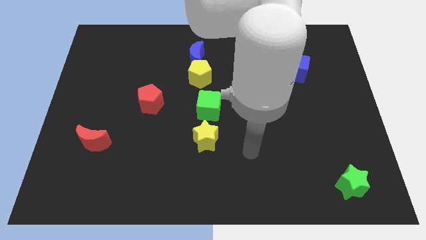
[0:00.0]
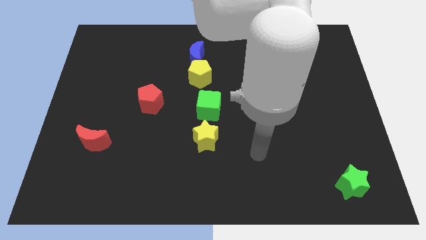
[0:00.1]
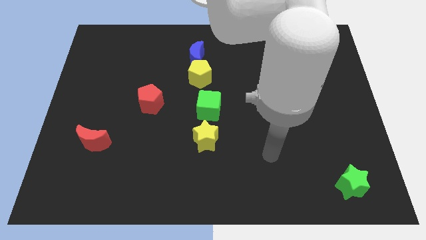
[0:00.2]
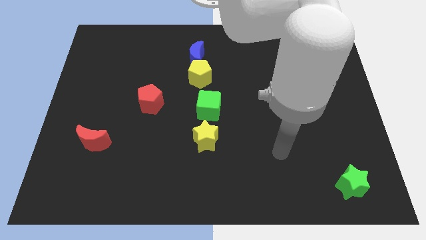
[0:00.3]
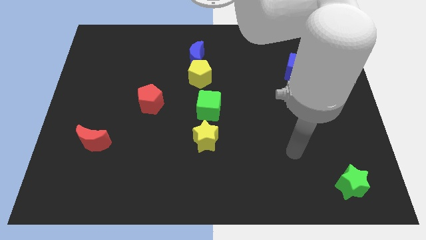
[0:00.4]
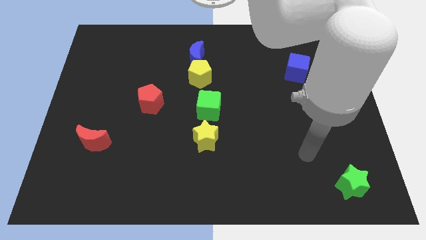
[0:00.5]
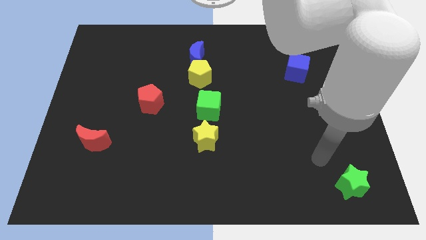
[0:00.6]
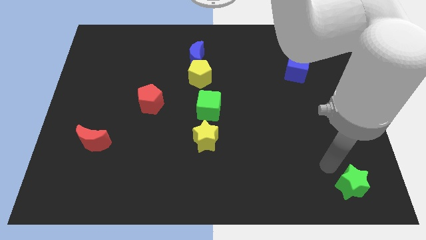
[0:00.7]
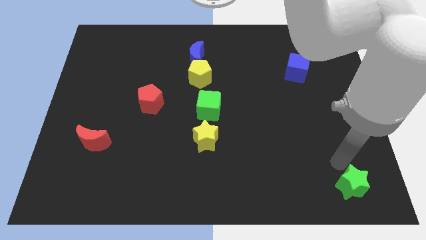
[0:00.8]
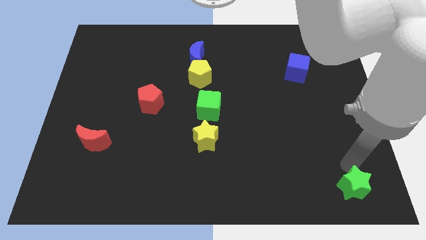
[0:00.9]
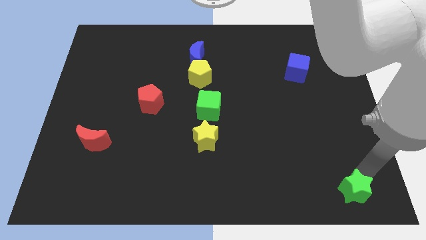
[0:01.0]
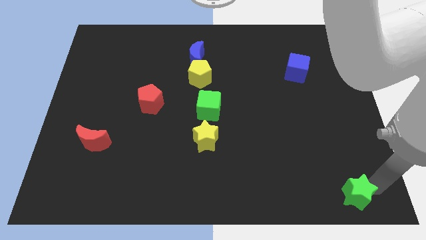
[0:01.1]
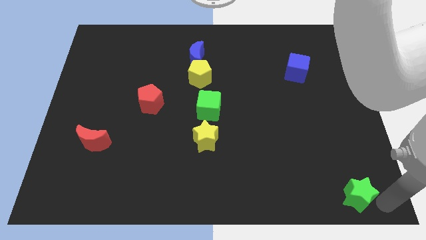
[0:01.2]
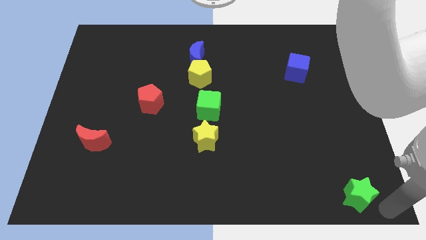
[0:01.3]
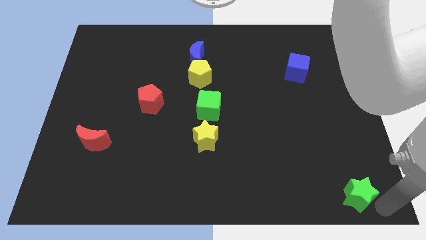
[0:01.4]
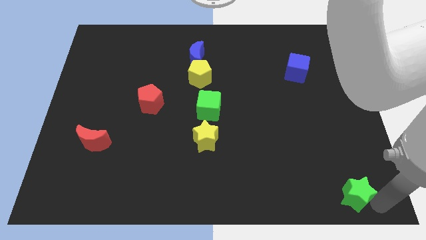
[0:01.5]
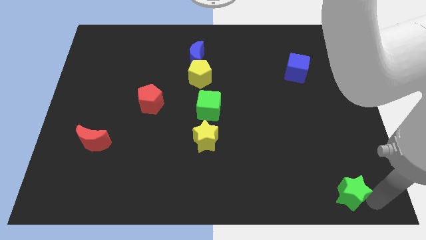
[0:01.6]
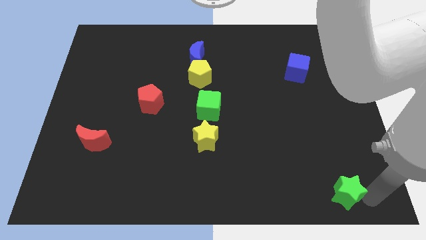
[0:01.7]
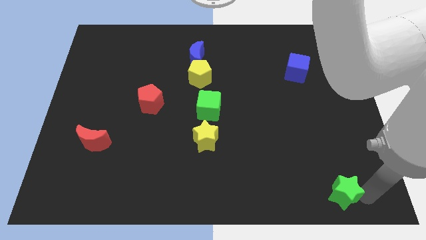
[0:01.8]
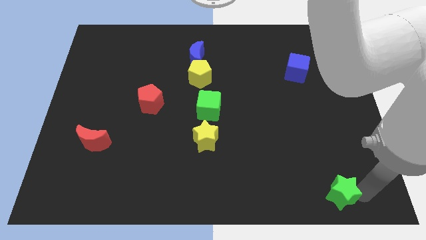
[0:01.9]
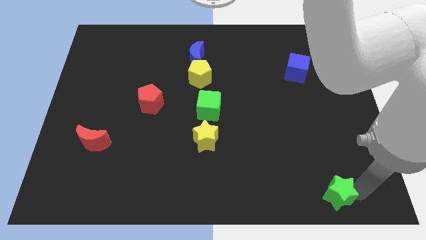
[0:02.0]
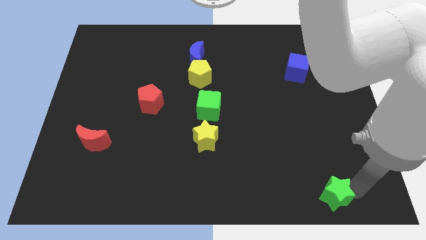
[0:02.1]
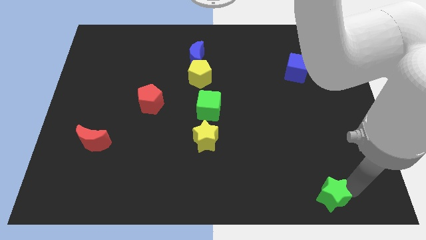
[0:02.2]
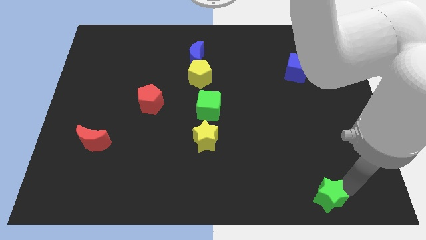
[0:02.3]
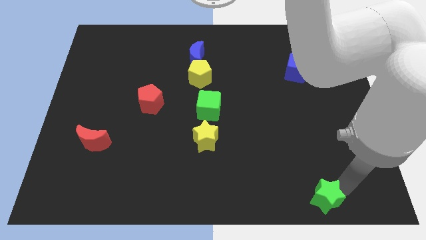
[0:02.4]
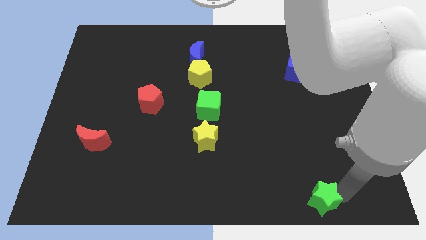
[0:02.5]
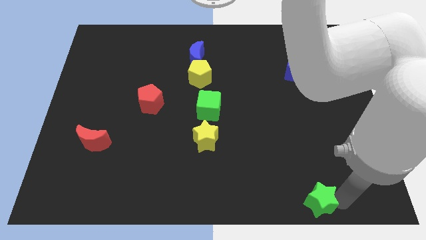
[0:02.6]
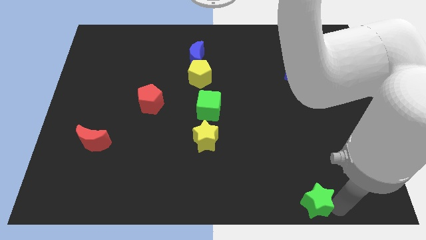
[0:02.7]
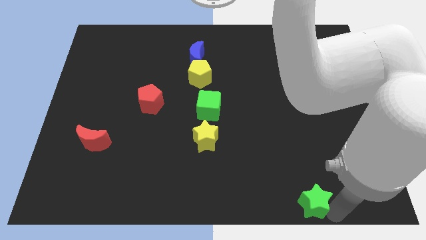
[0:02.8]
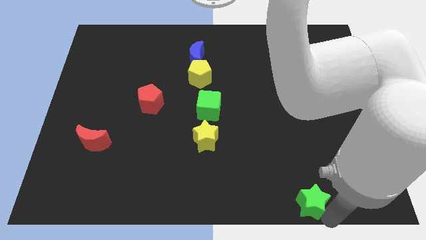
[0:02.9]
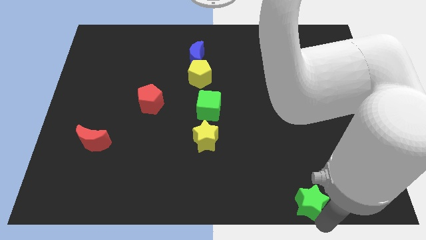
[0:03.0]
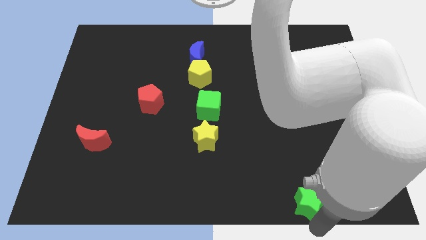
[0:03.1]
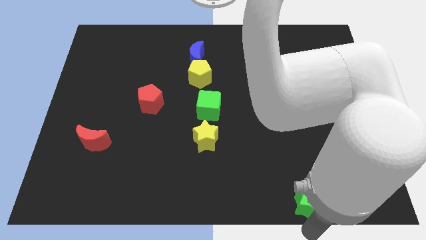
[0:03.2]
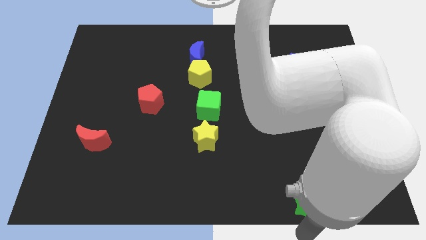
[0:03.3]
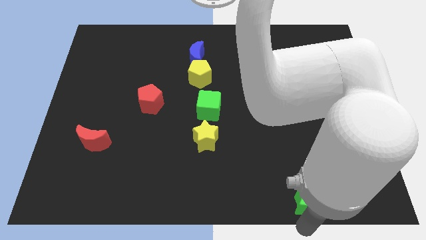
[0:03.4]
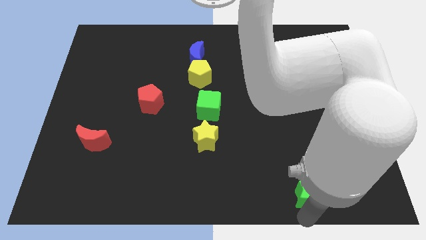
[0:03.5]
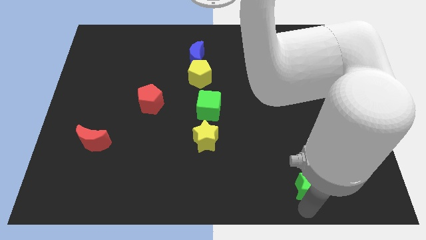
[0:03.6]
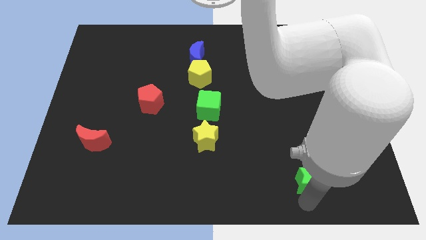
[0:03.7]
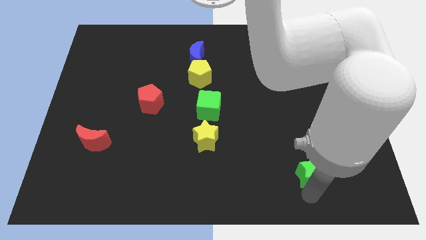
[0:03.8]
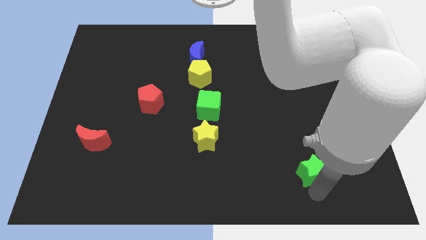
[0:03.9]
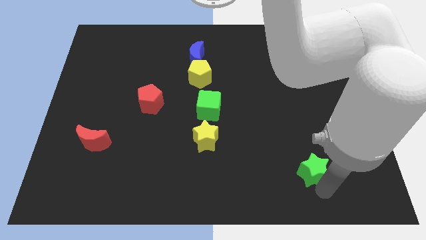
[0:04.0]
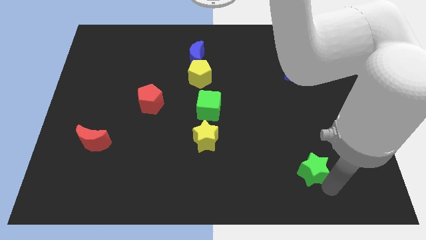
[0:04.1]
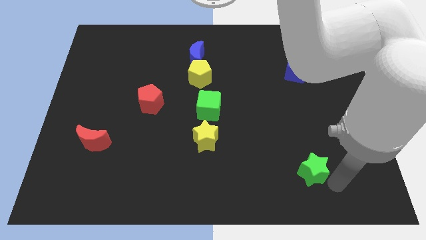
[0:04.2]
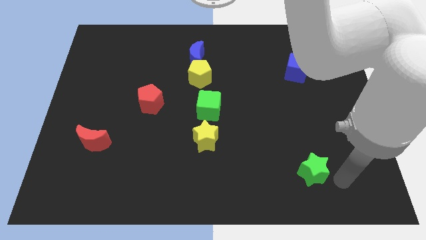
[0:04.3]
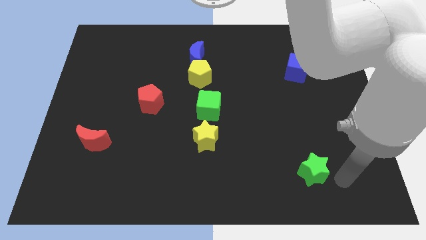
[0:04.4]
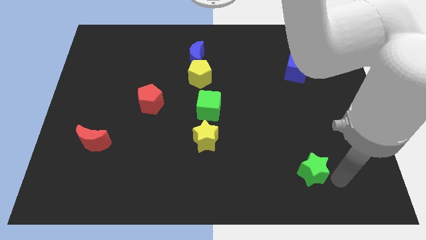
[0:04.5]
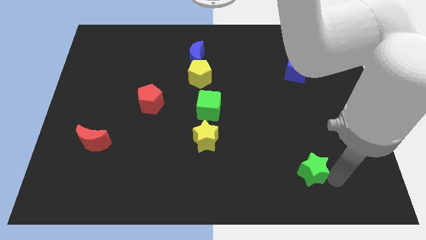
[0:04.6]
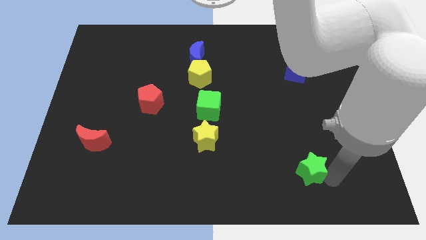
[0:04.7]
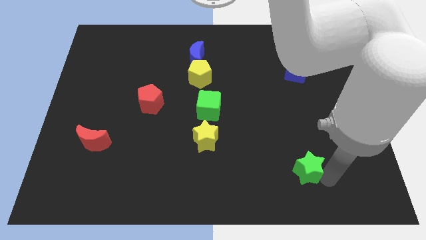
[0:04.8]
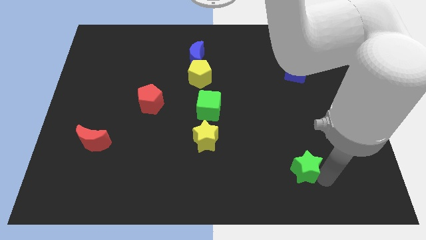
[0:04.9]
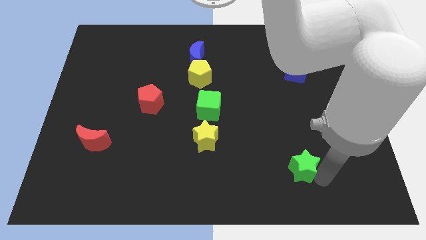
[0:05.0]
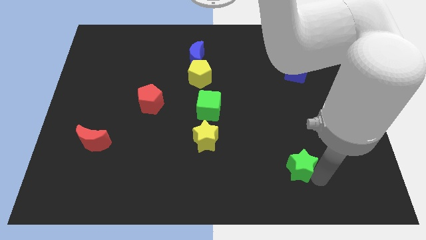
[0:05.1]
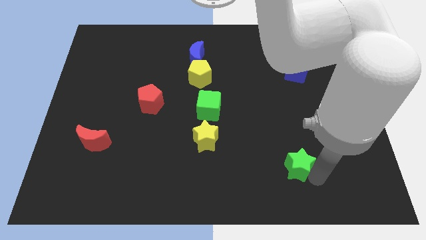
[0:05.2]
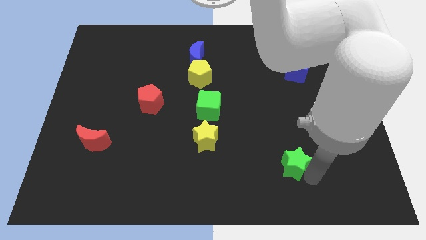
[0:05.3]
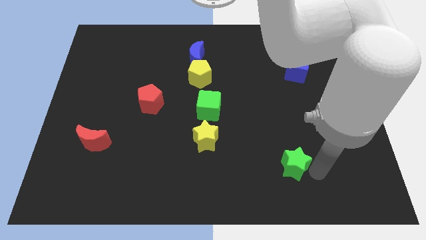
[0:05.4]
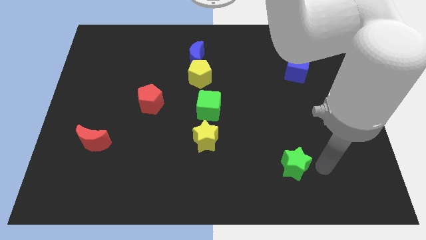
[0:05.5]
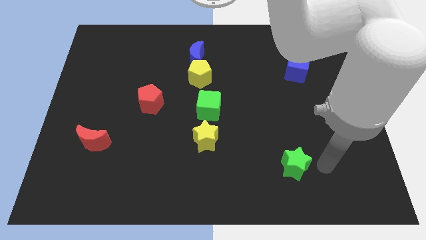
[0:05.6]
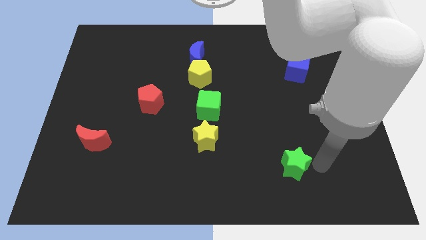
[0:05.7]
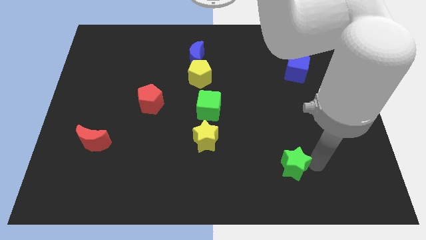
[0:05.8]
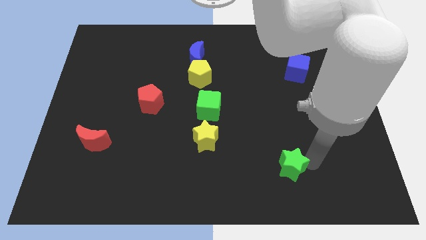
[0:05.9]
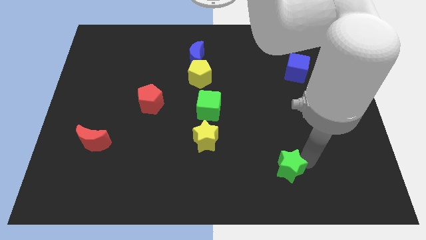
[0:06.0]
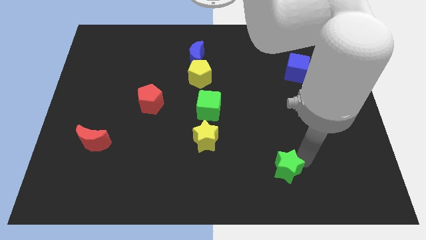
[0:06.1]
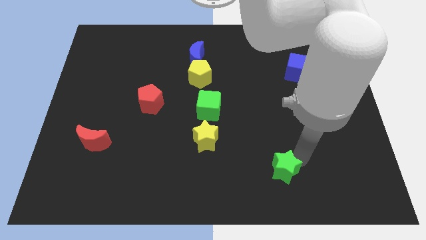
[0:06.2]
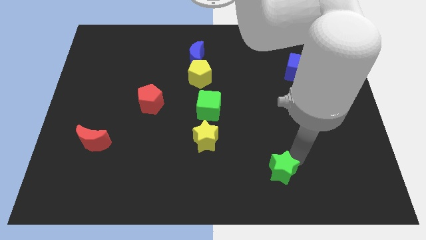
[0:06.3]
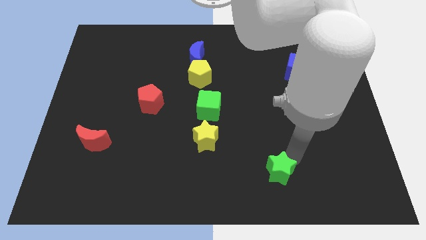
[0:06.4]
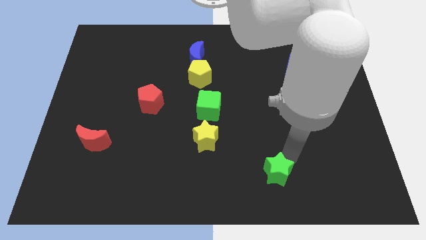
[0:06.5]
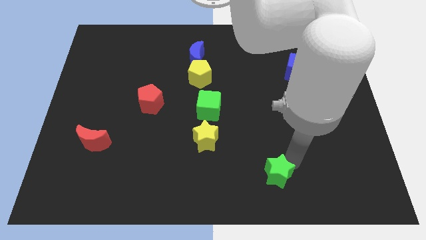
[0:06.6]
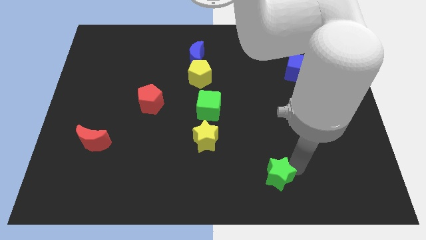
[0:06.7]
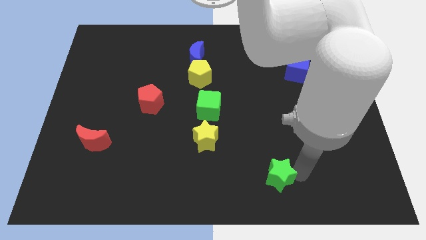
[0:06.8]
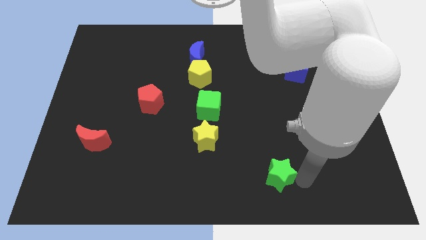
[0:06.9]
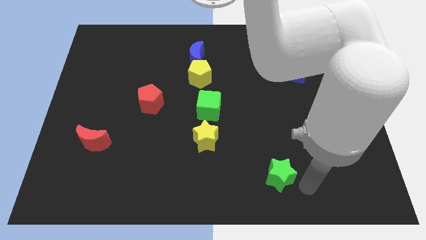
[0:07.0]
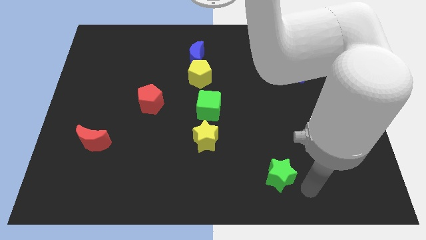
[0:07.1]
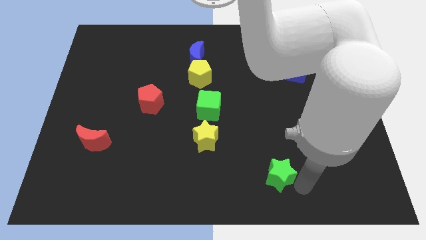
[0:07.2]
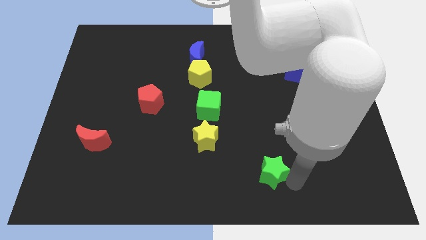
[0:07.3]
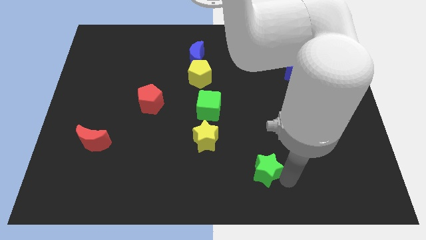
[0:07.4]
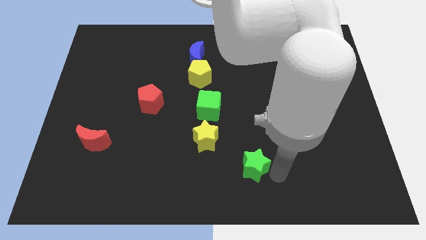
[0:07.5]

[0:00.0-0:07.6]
slide the green star to the bottom right side of the yellow star
